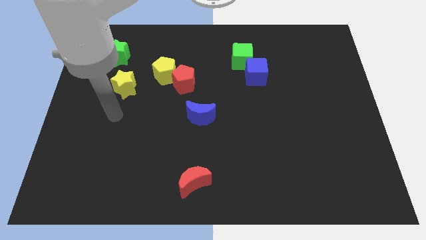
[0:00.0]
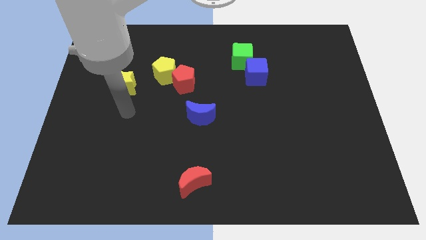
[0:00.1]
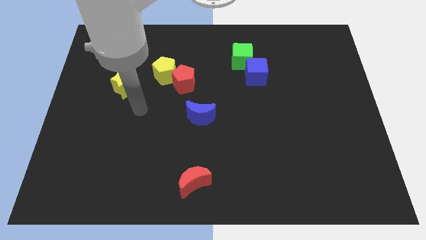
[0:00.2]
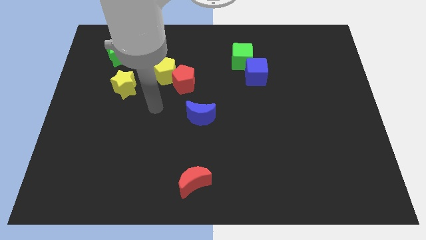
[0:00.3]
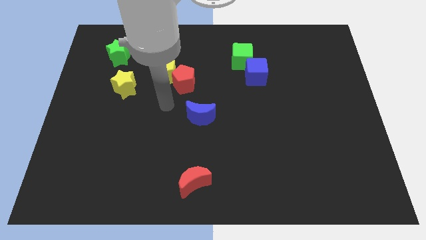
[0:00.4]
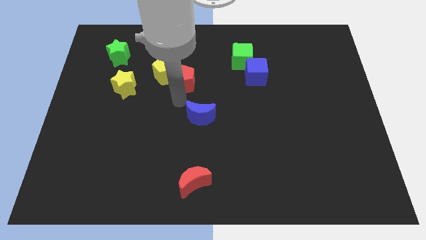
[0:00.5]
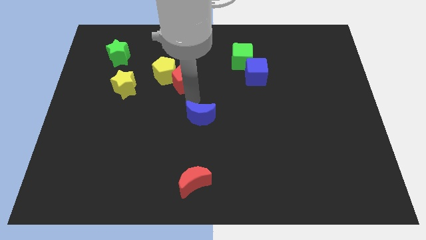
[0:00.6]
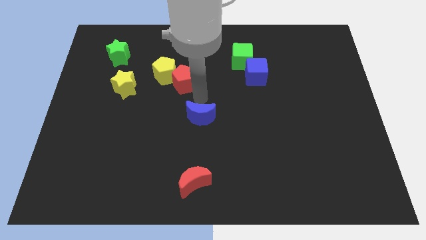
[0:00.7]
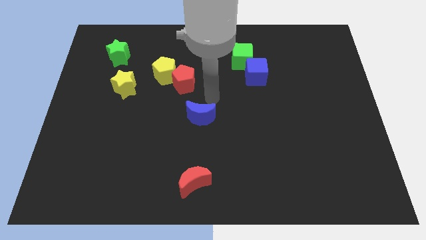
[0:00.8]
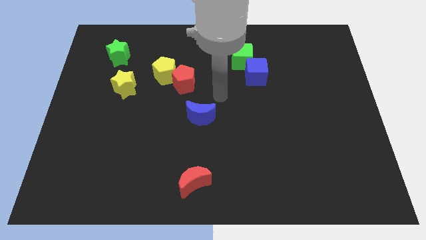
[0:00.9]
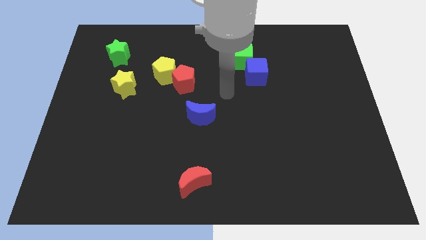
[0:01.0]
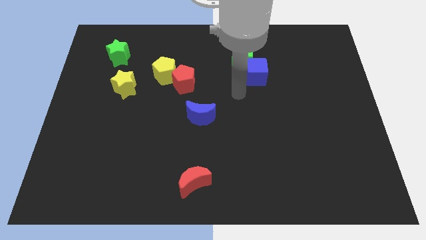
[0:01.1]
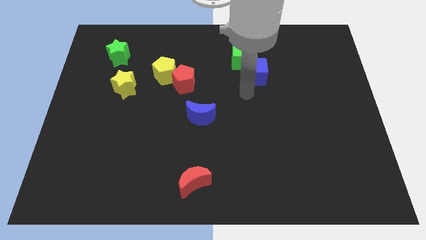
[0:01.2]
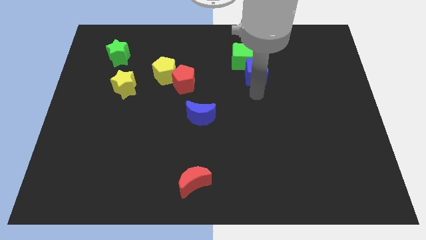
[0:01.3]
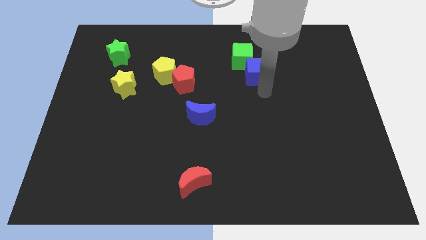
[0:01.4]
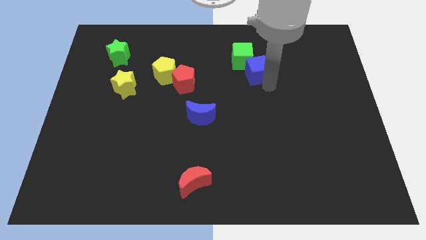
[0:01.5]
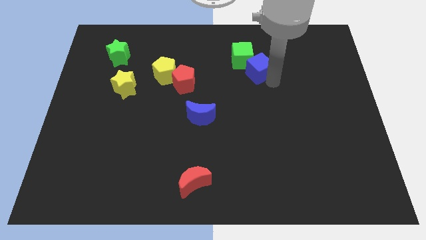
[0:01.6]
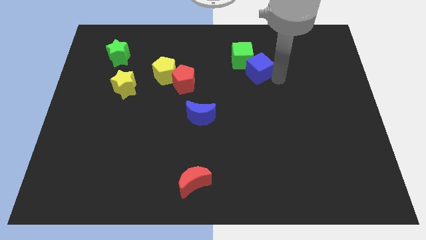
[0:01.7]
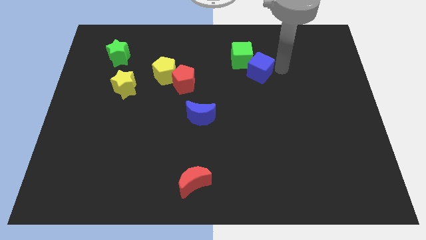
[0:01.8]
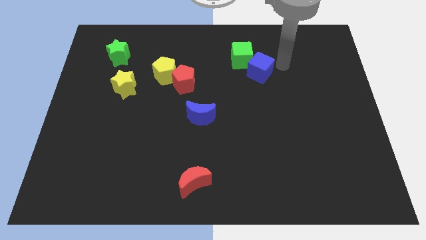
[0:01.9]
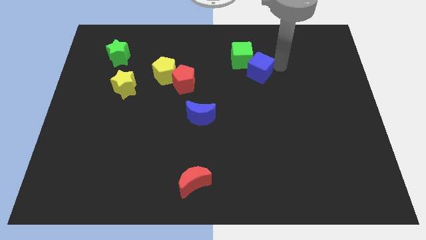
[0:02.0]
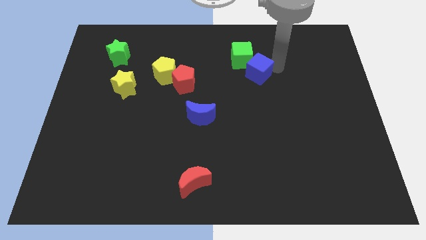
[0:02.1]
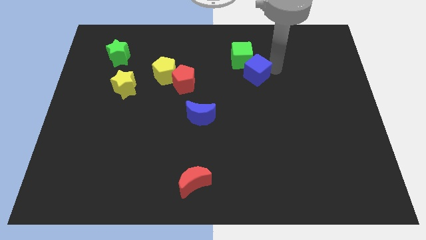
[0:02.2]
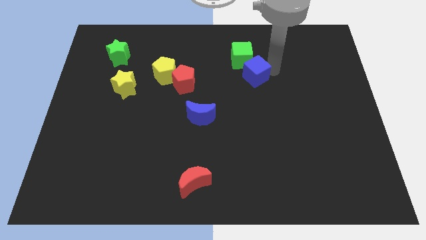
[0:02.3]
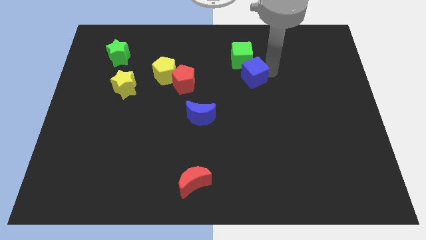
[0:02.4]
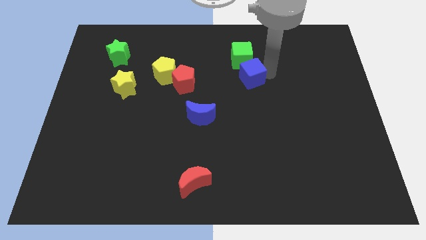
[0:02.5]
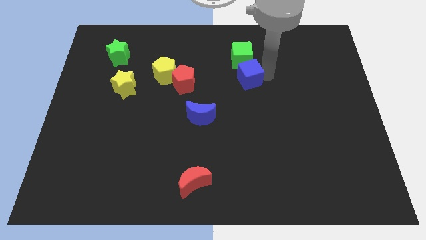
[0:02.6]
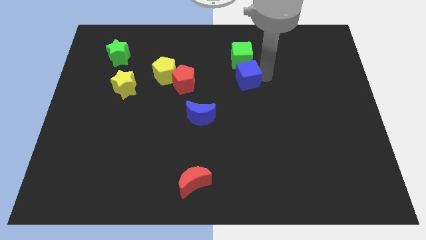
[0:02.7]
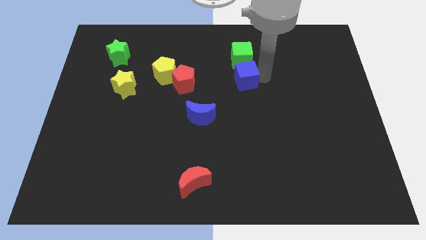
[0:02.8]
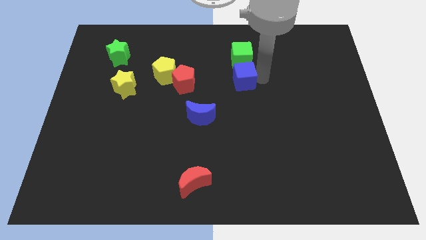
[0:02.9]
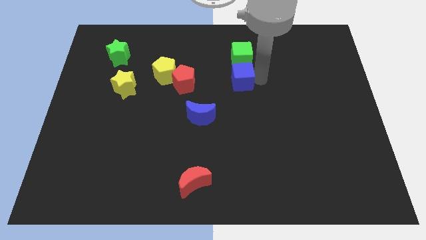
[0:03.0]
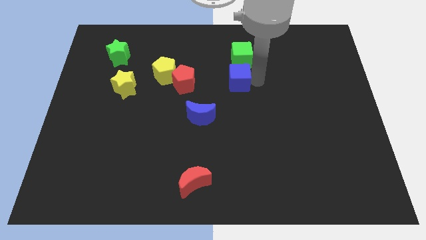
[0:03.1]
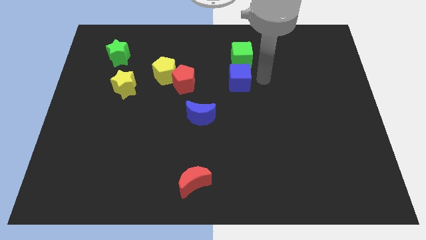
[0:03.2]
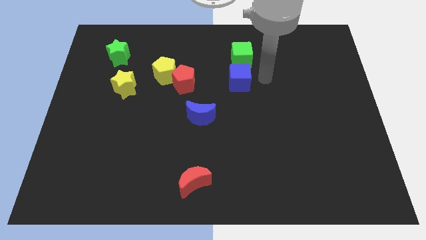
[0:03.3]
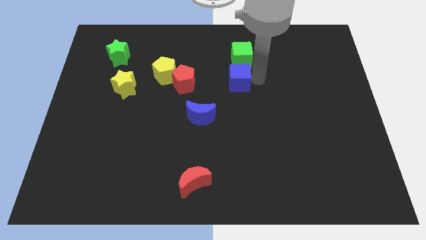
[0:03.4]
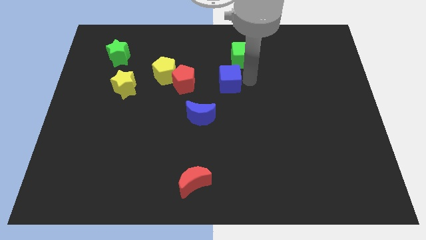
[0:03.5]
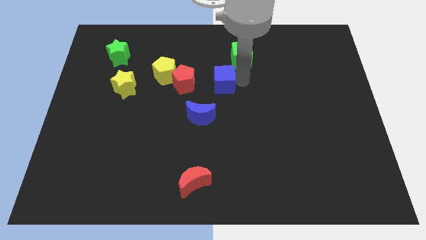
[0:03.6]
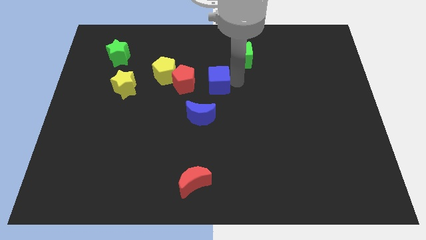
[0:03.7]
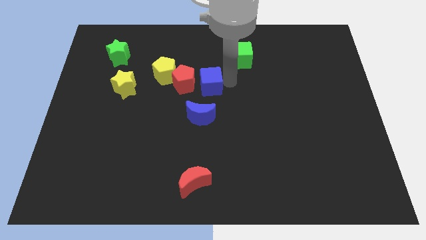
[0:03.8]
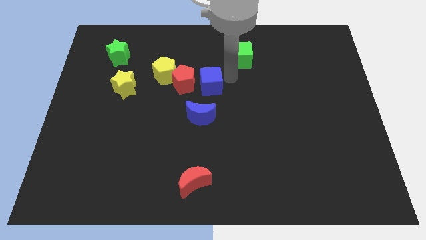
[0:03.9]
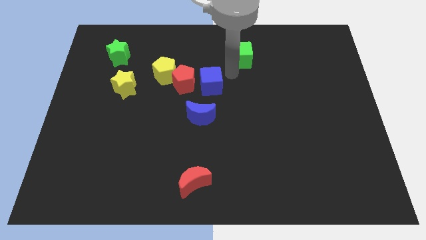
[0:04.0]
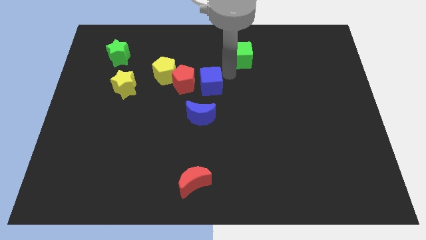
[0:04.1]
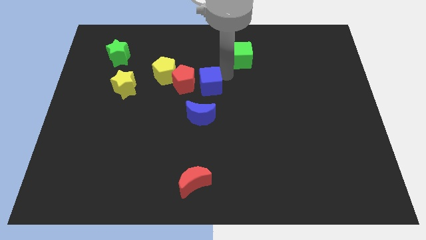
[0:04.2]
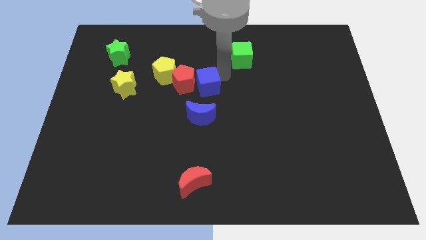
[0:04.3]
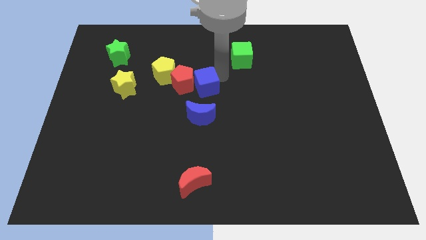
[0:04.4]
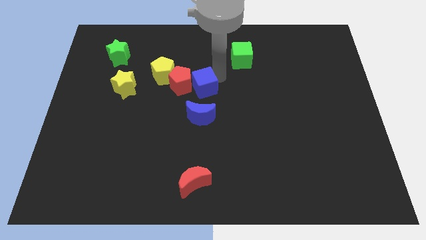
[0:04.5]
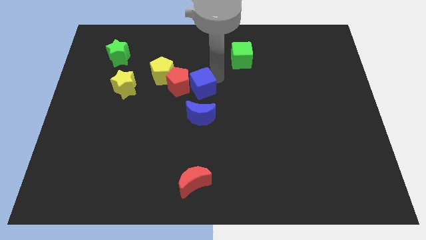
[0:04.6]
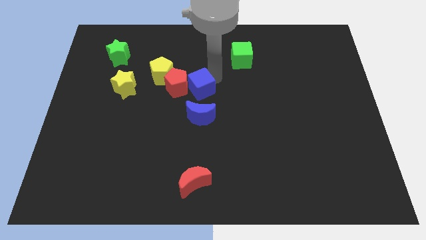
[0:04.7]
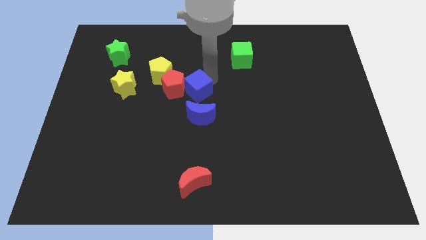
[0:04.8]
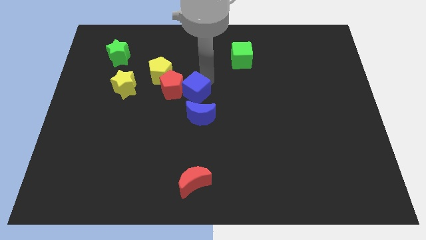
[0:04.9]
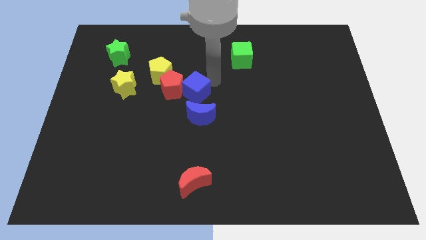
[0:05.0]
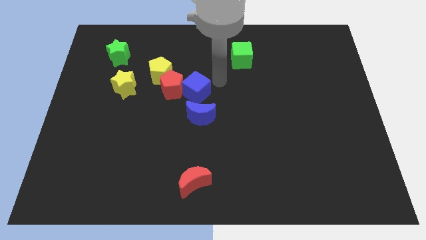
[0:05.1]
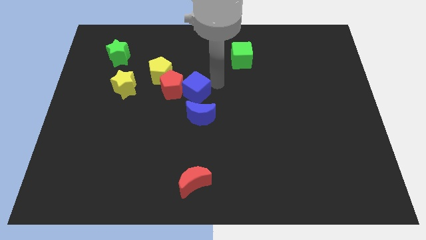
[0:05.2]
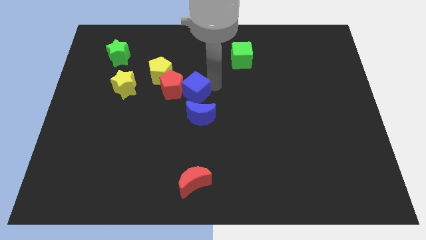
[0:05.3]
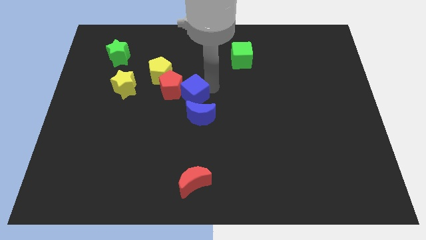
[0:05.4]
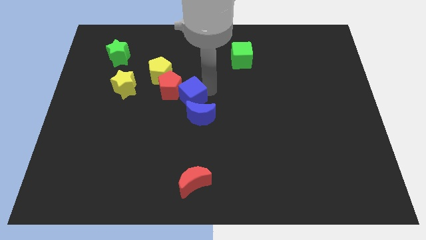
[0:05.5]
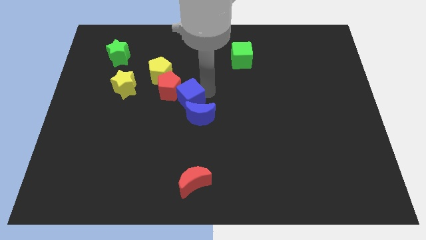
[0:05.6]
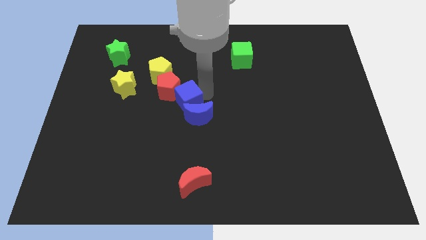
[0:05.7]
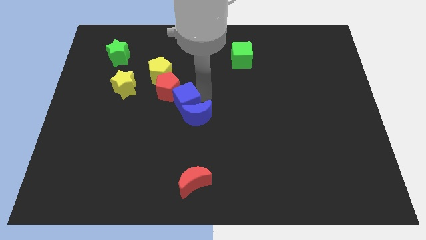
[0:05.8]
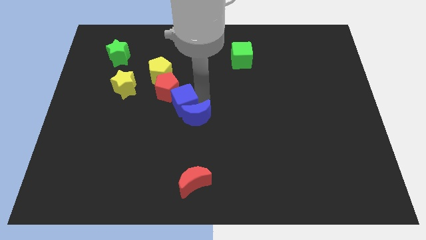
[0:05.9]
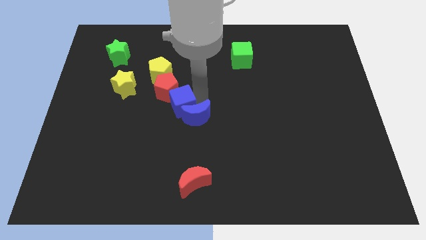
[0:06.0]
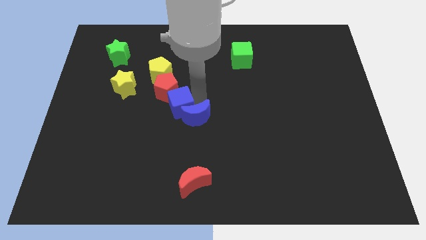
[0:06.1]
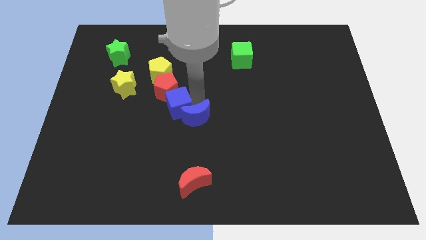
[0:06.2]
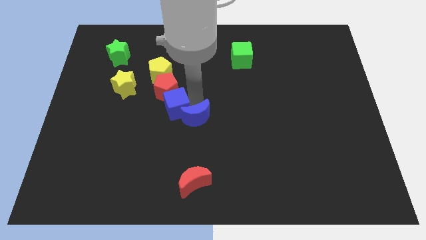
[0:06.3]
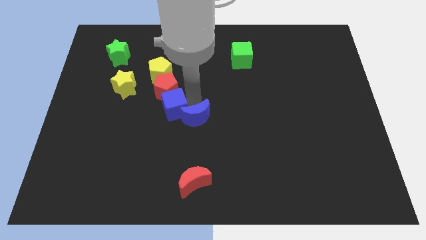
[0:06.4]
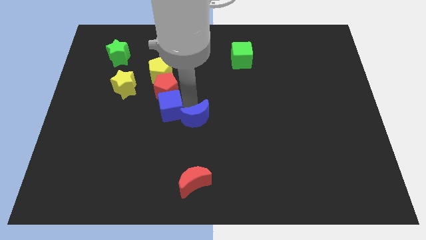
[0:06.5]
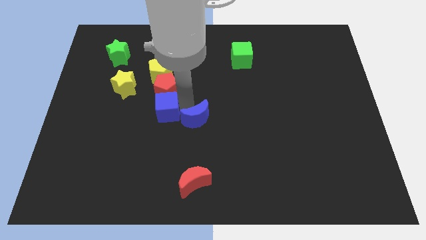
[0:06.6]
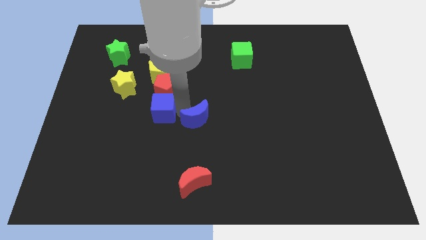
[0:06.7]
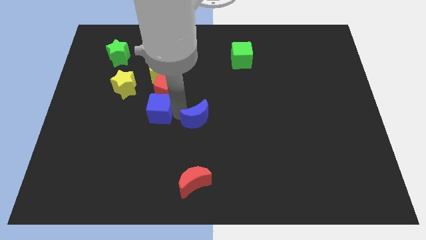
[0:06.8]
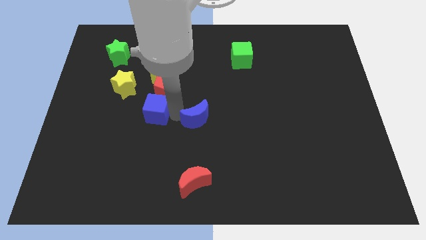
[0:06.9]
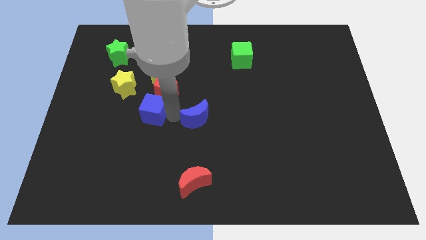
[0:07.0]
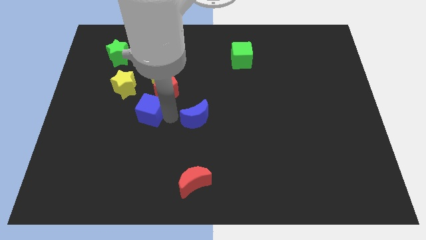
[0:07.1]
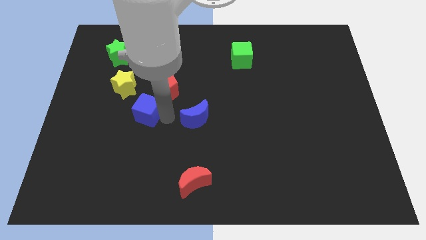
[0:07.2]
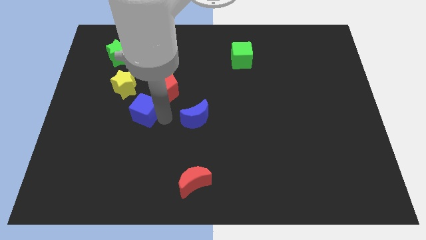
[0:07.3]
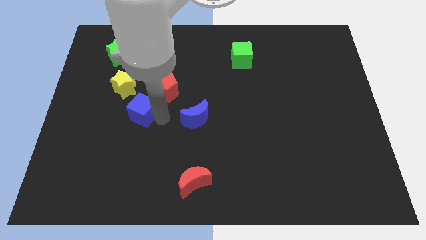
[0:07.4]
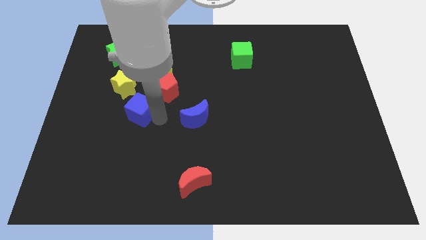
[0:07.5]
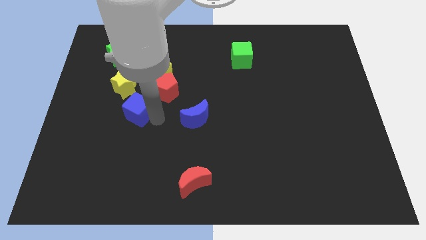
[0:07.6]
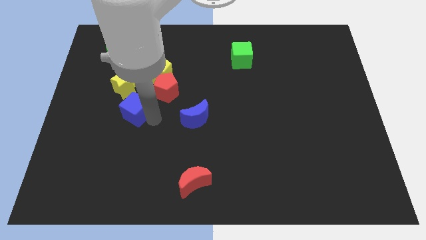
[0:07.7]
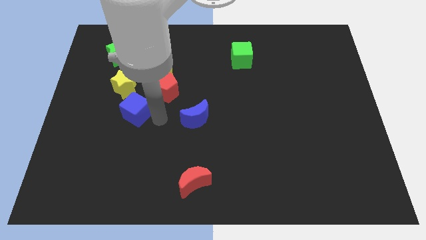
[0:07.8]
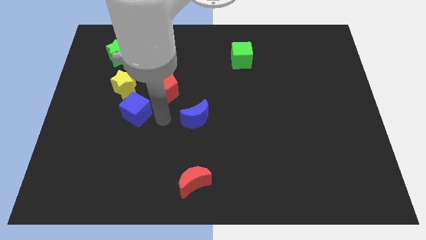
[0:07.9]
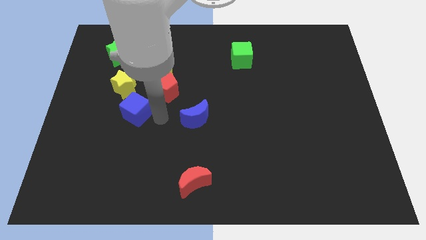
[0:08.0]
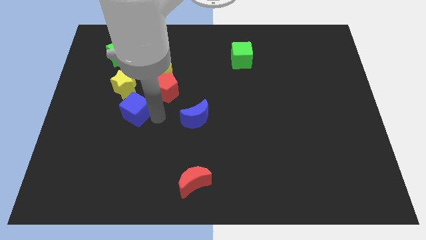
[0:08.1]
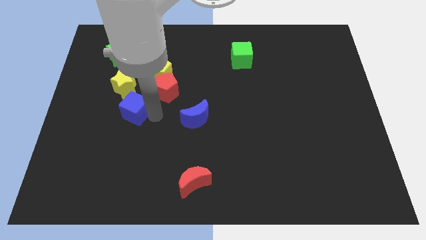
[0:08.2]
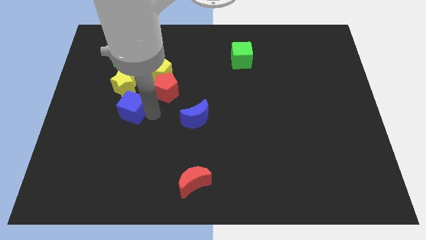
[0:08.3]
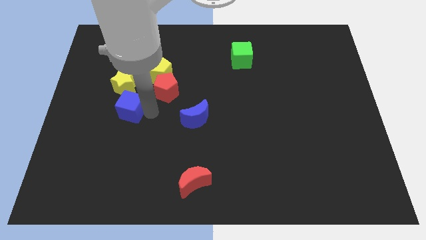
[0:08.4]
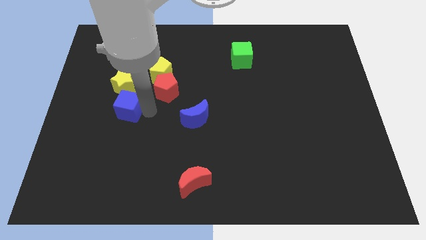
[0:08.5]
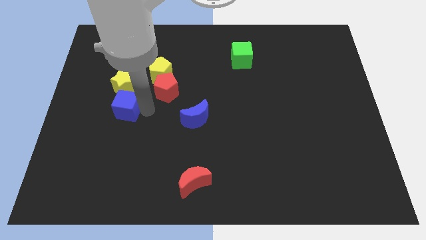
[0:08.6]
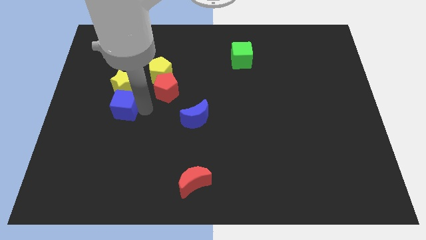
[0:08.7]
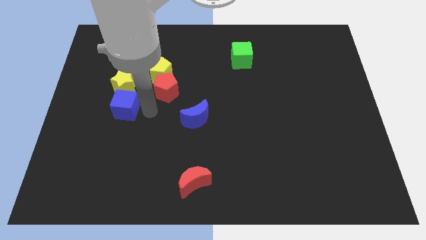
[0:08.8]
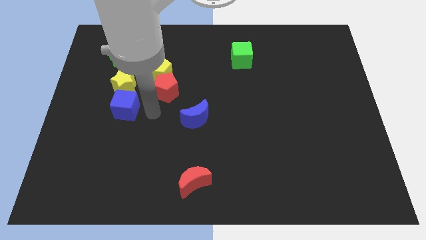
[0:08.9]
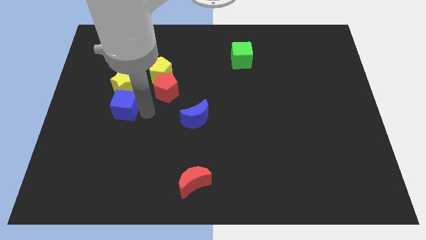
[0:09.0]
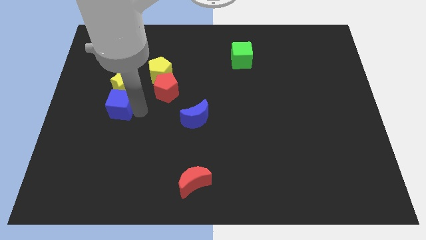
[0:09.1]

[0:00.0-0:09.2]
put the blue cube to the bottom left of the yellow star
